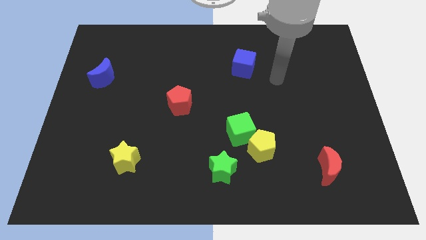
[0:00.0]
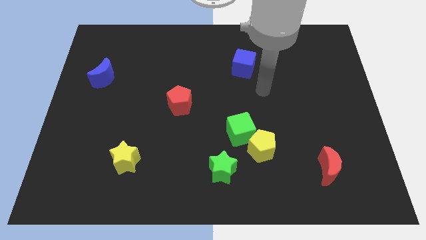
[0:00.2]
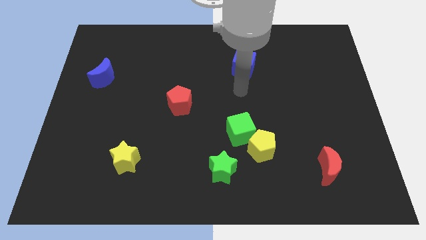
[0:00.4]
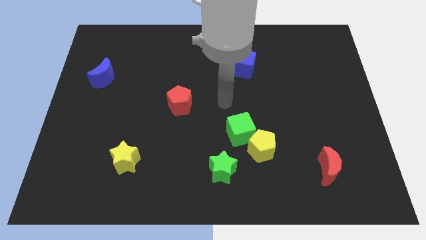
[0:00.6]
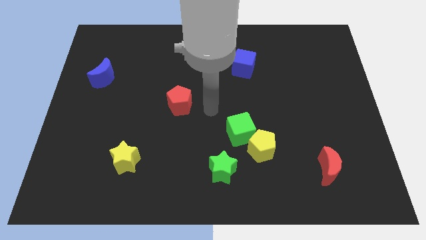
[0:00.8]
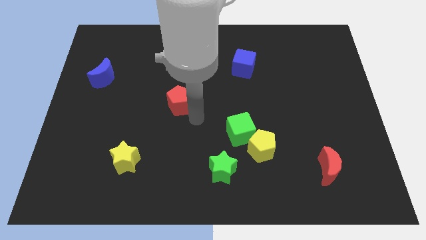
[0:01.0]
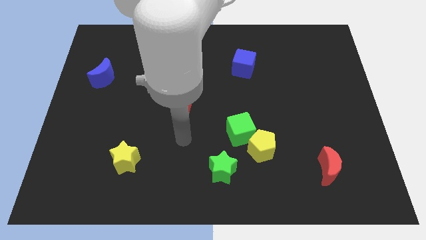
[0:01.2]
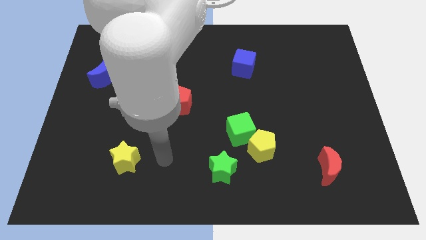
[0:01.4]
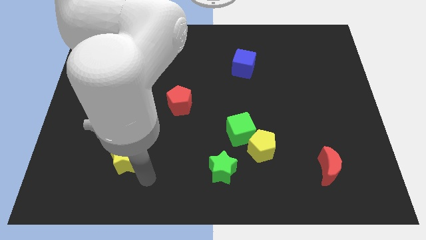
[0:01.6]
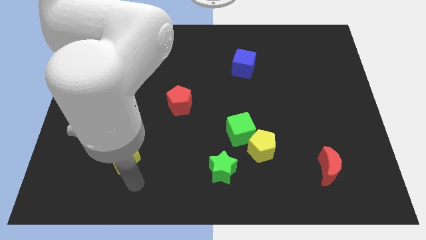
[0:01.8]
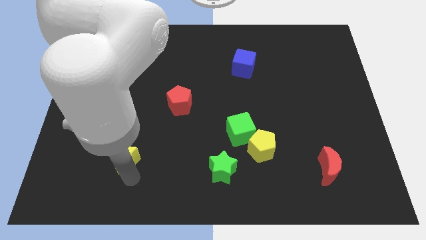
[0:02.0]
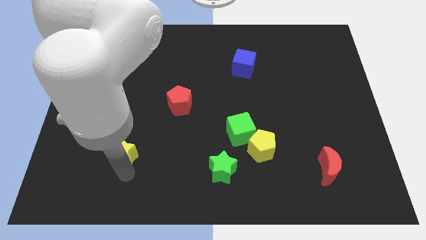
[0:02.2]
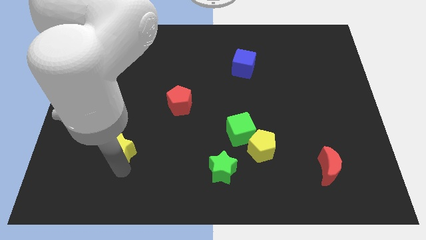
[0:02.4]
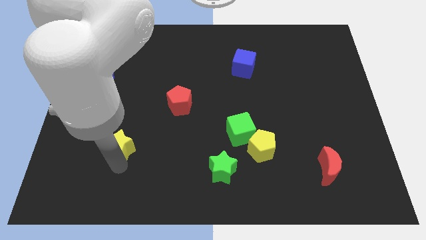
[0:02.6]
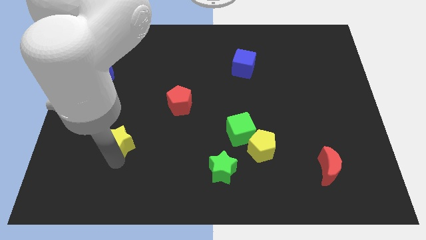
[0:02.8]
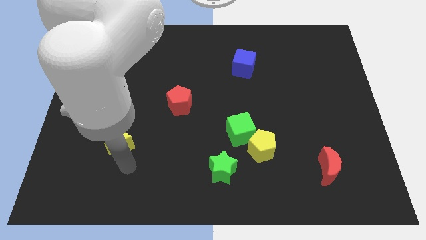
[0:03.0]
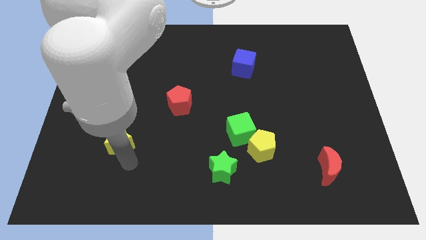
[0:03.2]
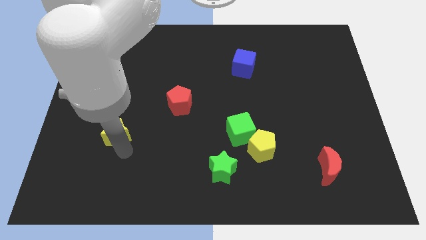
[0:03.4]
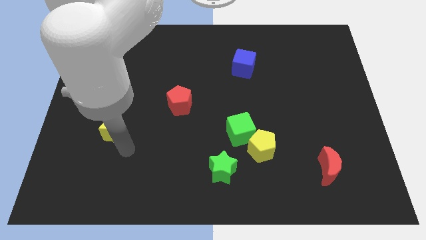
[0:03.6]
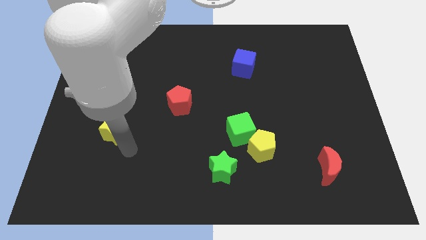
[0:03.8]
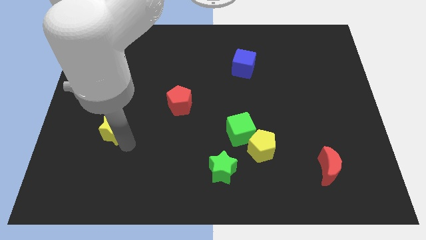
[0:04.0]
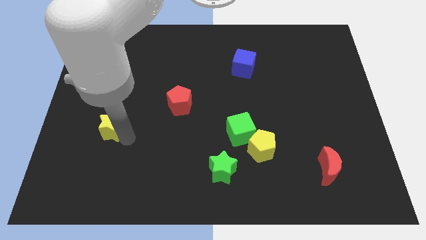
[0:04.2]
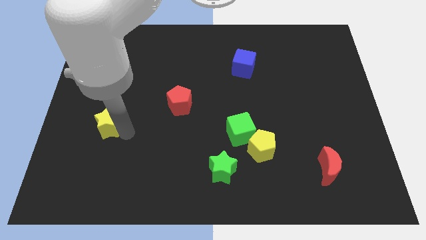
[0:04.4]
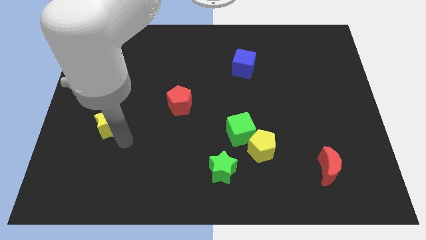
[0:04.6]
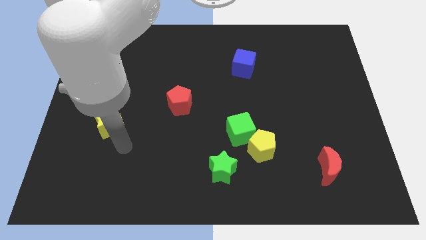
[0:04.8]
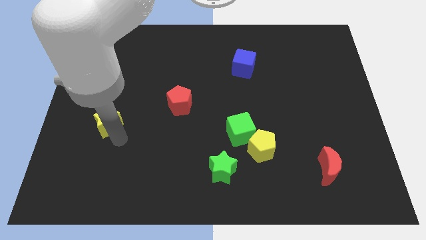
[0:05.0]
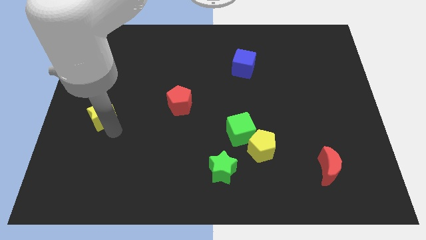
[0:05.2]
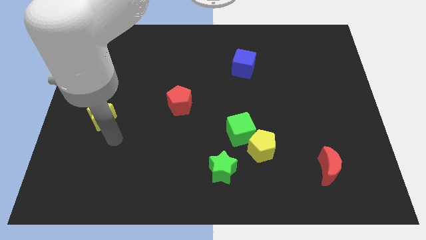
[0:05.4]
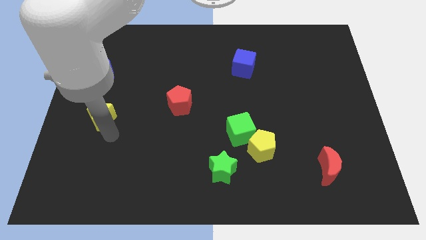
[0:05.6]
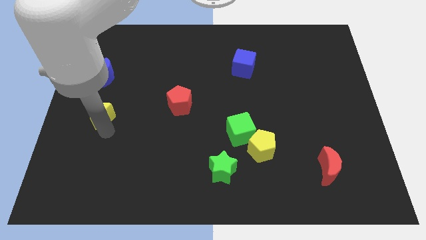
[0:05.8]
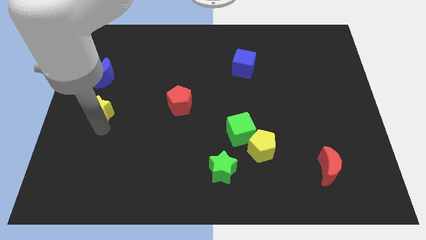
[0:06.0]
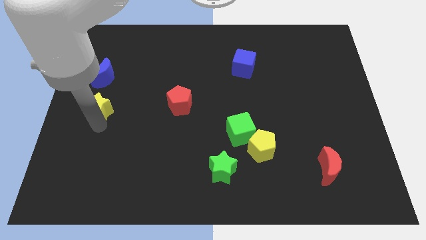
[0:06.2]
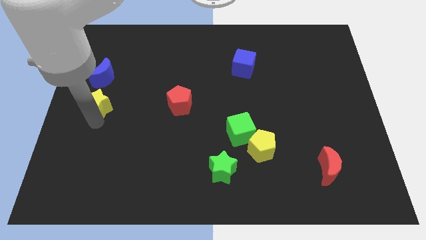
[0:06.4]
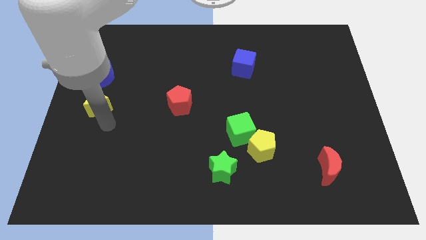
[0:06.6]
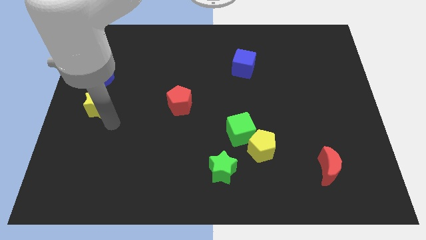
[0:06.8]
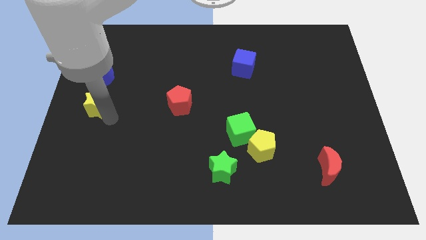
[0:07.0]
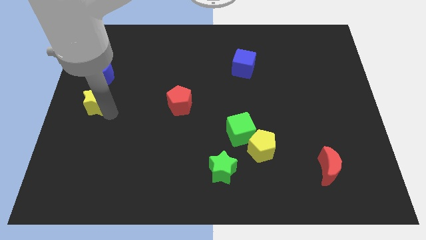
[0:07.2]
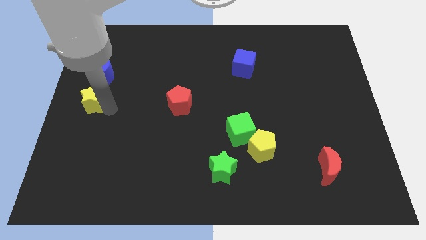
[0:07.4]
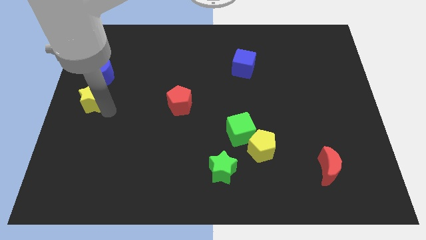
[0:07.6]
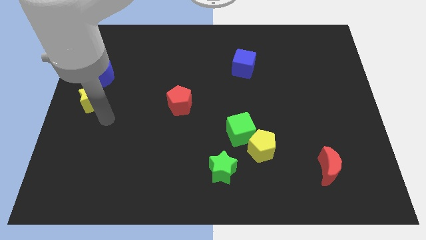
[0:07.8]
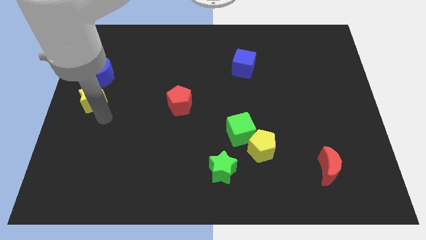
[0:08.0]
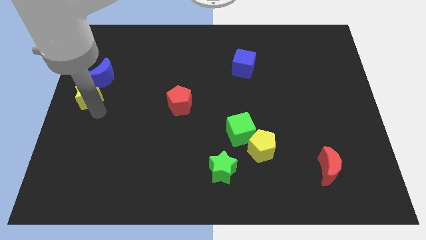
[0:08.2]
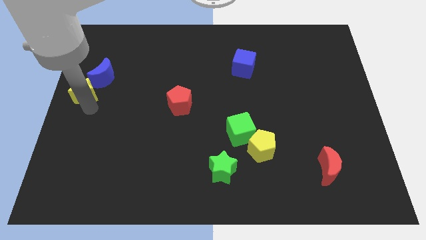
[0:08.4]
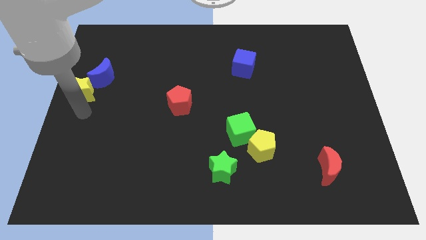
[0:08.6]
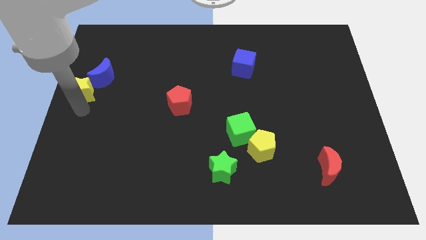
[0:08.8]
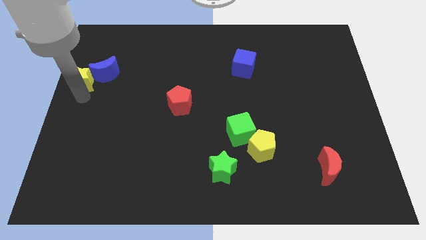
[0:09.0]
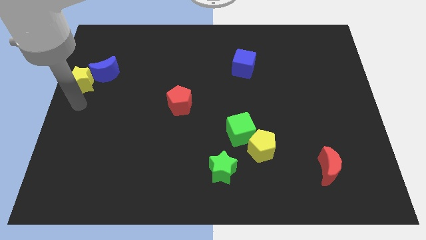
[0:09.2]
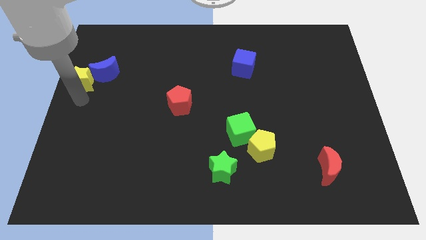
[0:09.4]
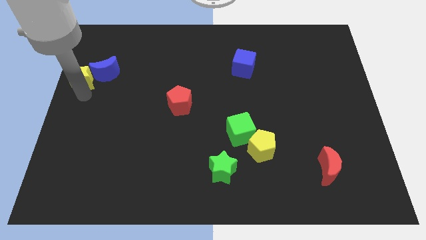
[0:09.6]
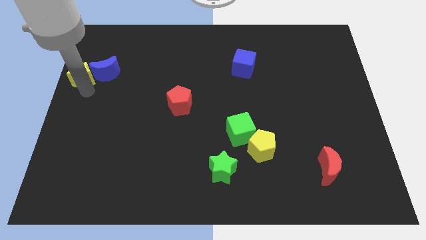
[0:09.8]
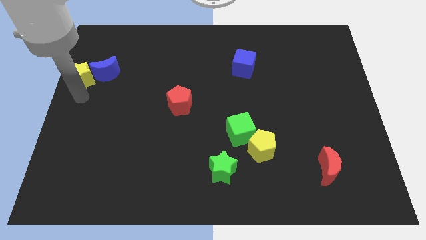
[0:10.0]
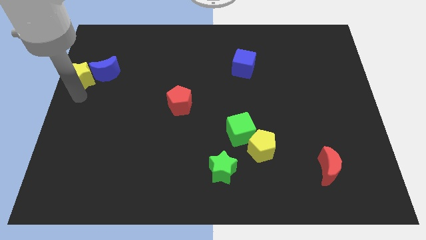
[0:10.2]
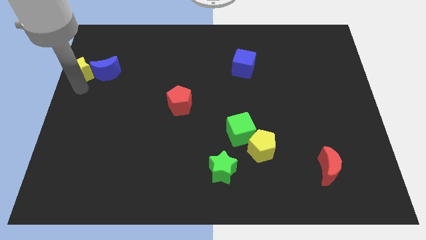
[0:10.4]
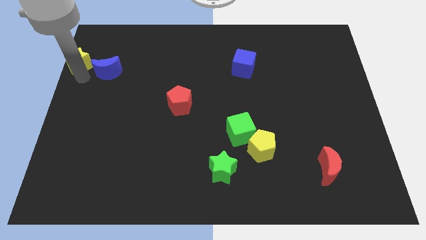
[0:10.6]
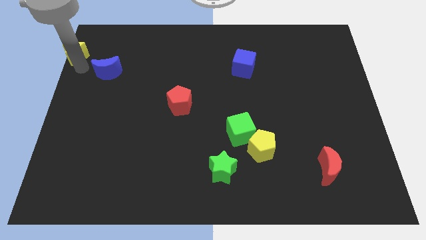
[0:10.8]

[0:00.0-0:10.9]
push the yellow star to the top left of the board
